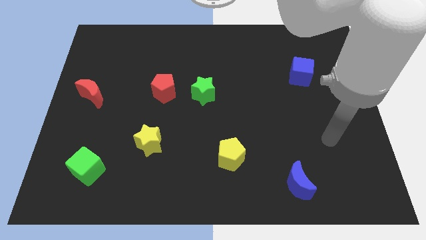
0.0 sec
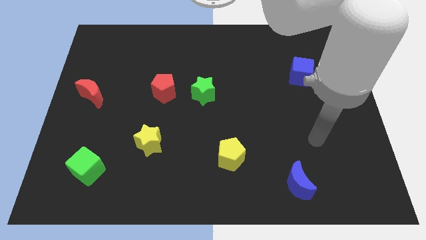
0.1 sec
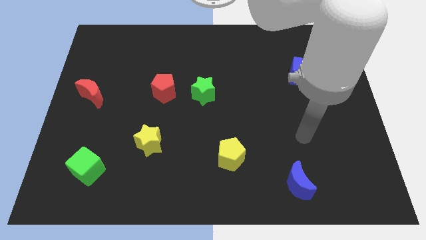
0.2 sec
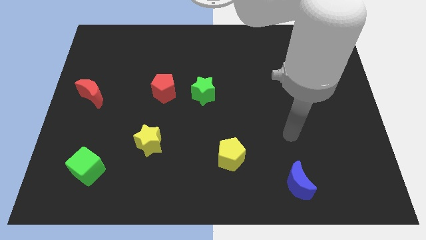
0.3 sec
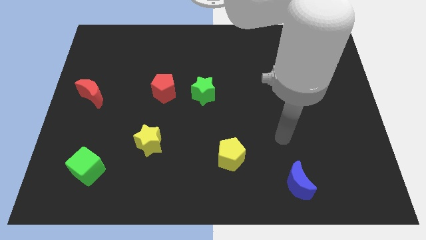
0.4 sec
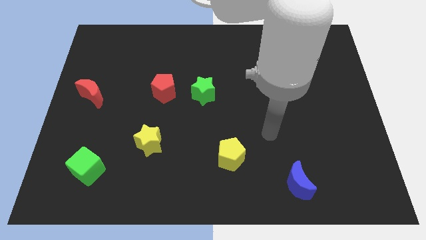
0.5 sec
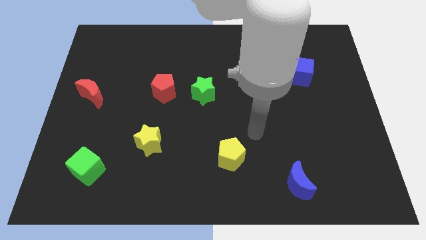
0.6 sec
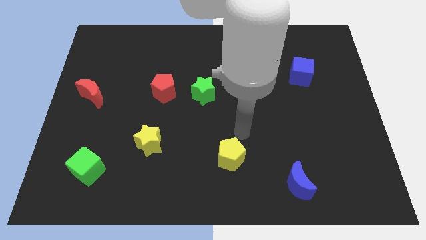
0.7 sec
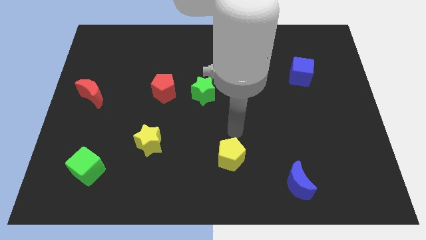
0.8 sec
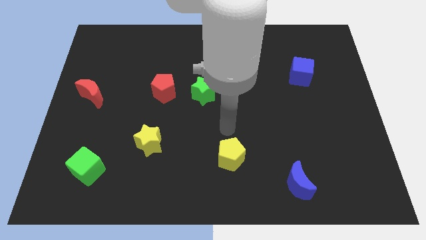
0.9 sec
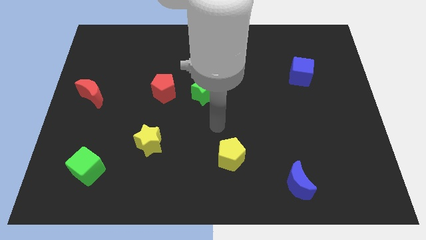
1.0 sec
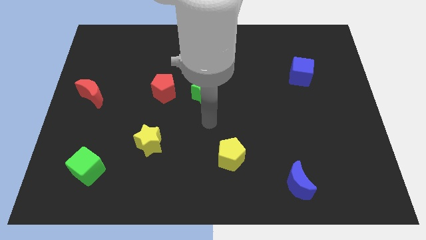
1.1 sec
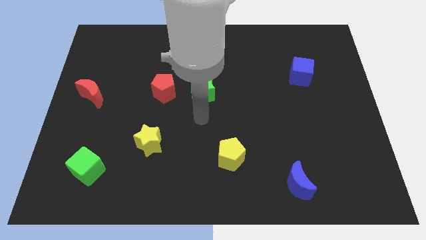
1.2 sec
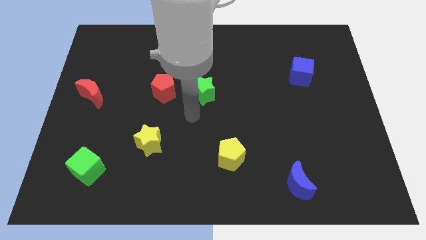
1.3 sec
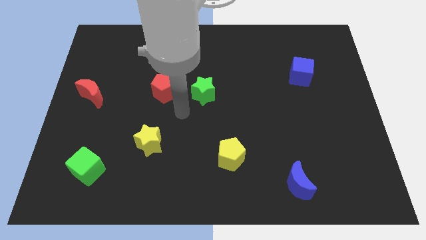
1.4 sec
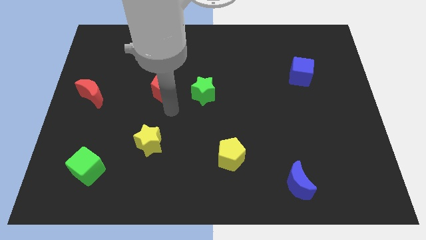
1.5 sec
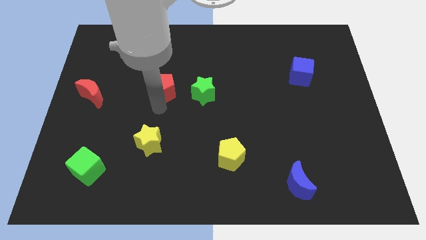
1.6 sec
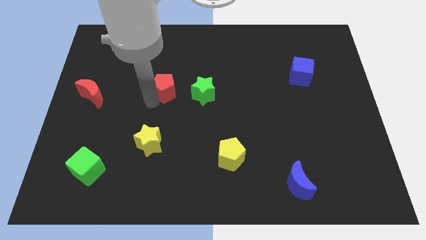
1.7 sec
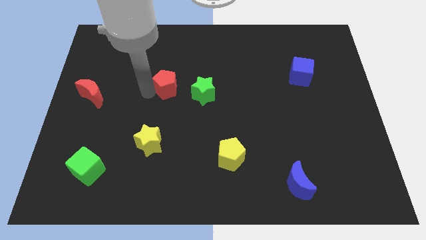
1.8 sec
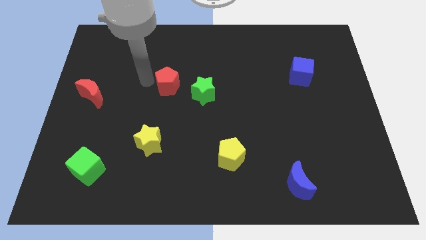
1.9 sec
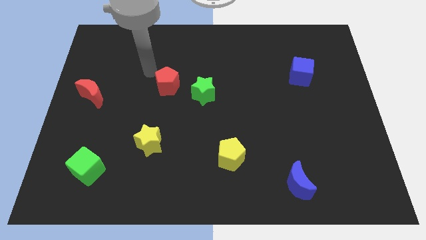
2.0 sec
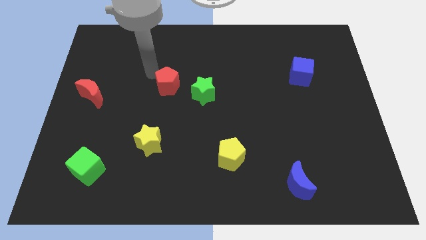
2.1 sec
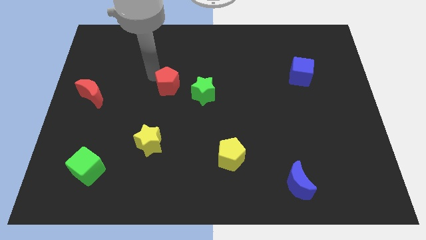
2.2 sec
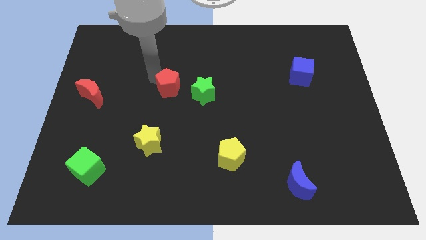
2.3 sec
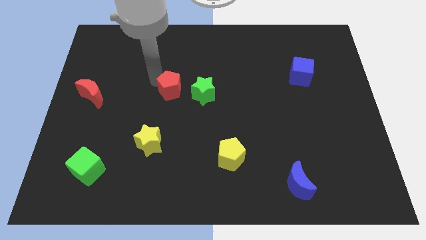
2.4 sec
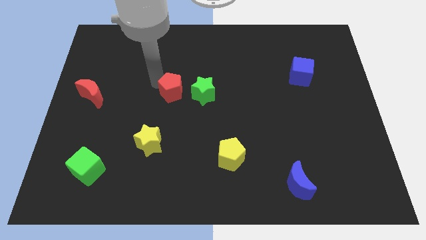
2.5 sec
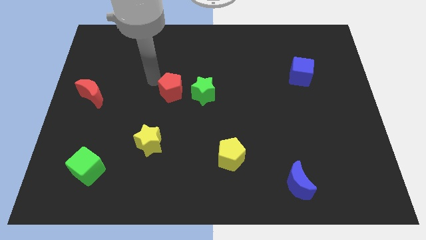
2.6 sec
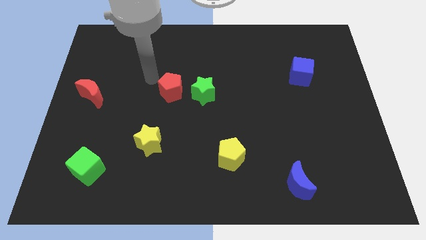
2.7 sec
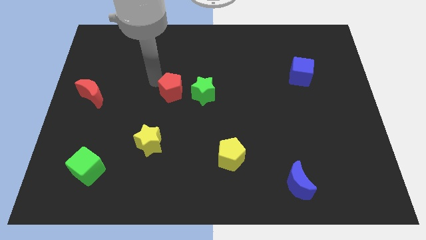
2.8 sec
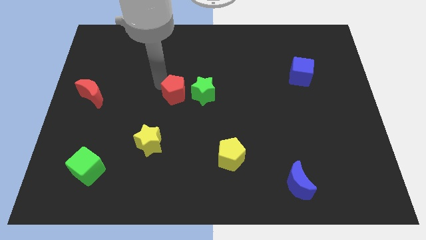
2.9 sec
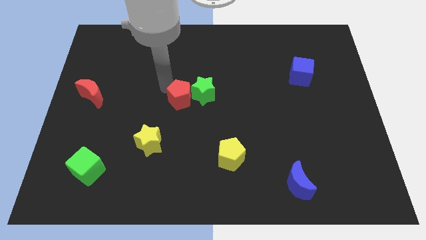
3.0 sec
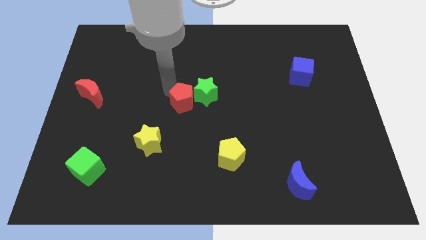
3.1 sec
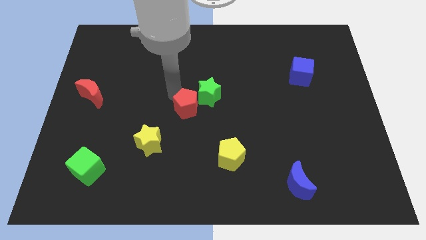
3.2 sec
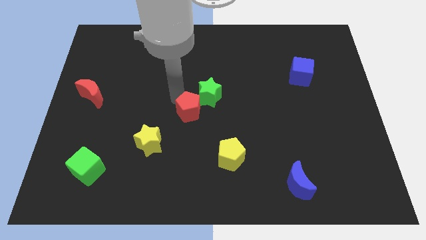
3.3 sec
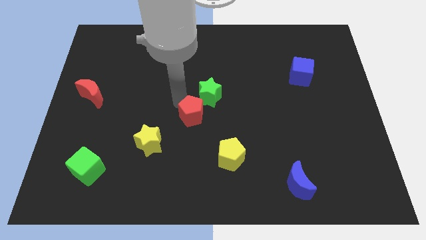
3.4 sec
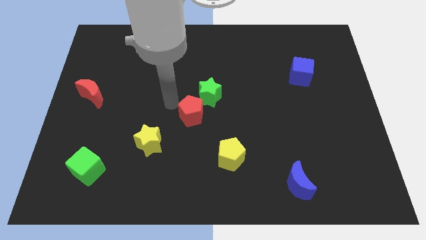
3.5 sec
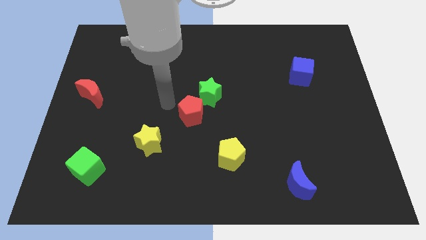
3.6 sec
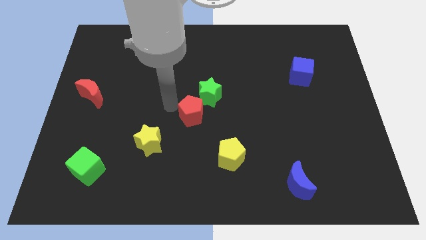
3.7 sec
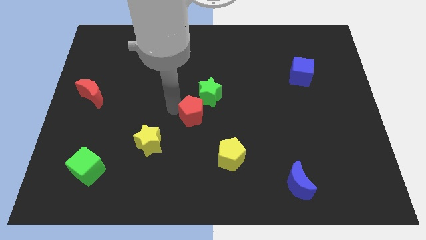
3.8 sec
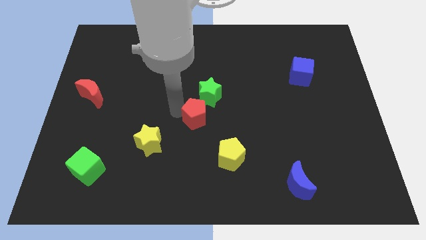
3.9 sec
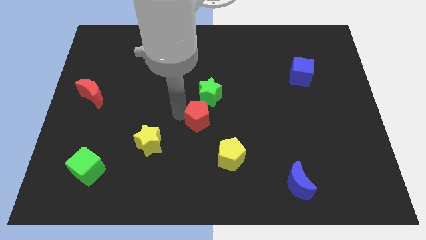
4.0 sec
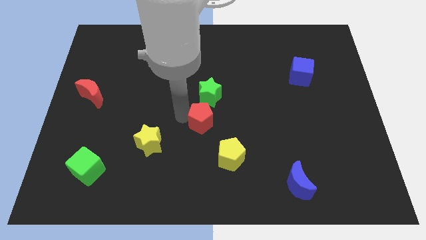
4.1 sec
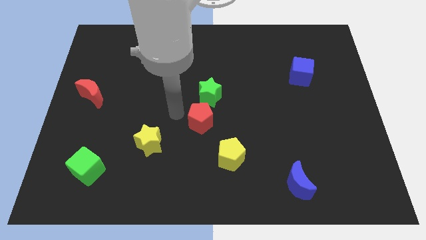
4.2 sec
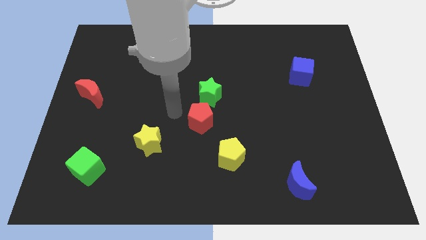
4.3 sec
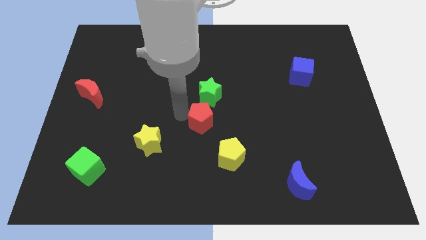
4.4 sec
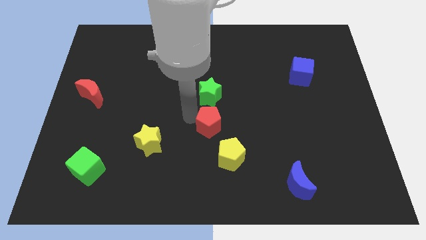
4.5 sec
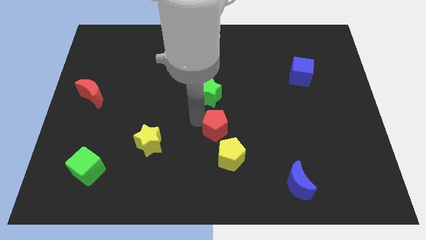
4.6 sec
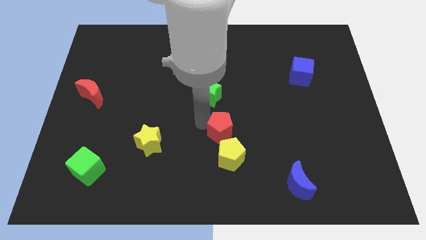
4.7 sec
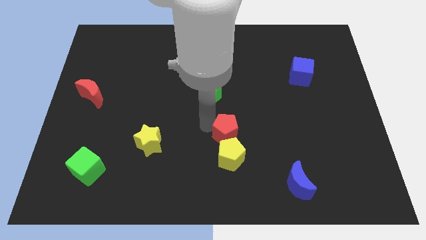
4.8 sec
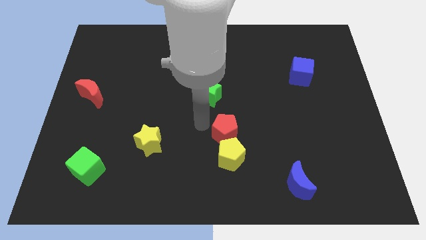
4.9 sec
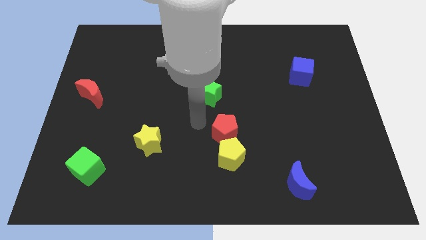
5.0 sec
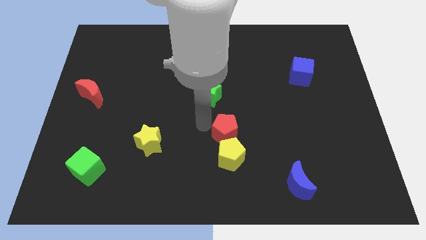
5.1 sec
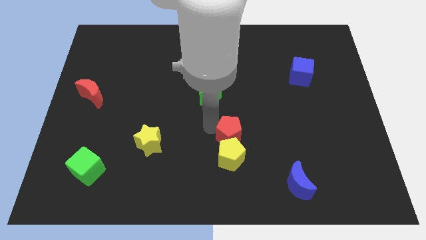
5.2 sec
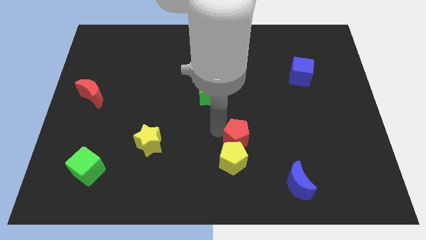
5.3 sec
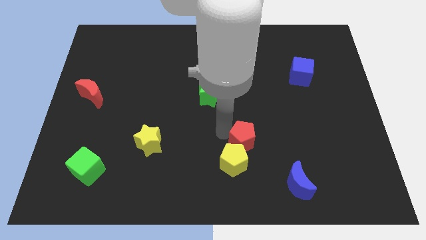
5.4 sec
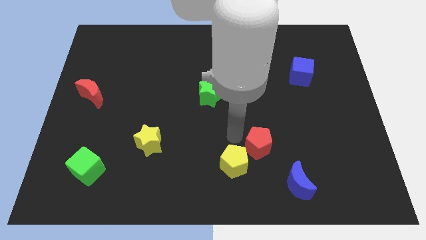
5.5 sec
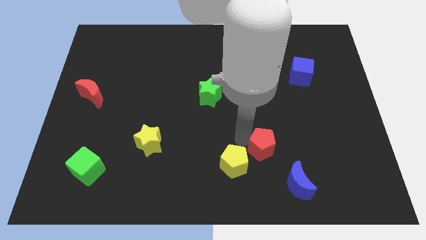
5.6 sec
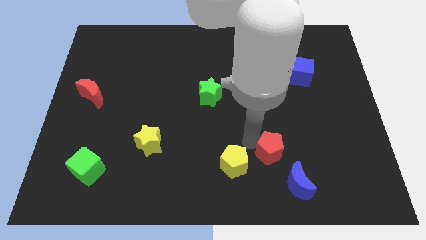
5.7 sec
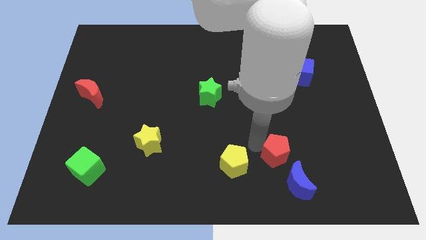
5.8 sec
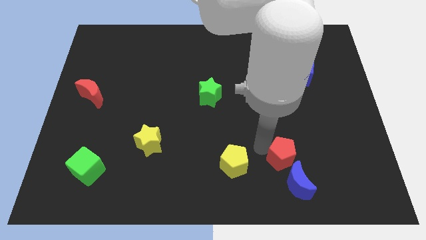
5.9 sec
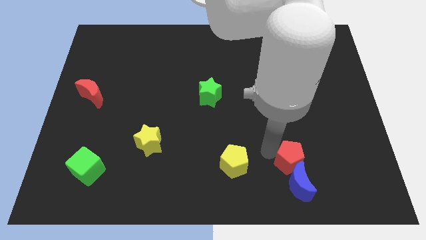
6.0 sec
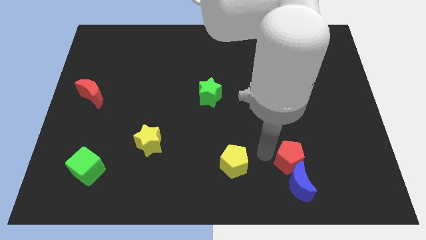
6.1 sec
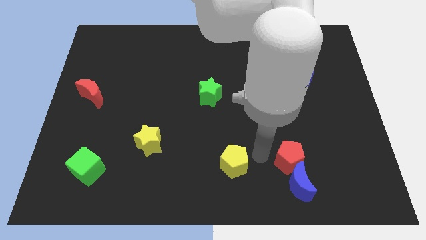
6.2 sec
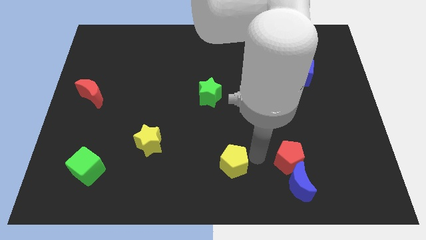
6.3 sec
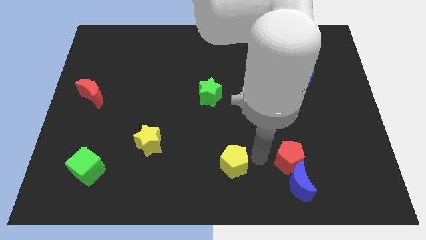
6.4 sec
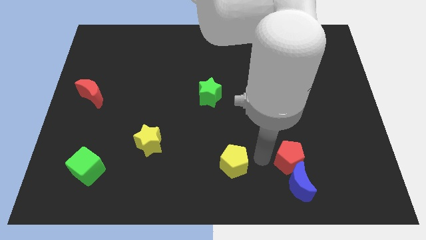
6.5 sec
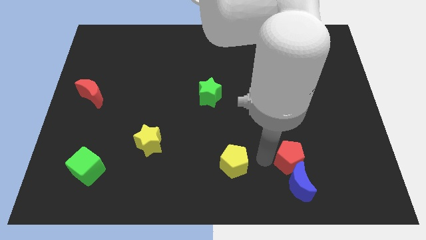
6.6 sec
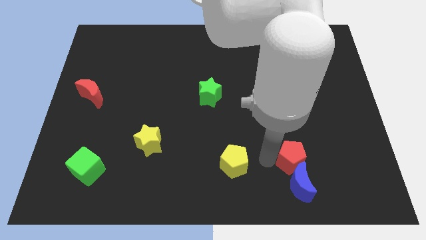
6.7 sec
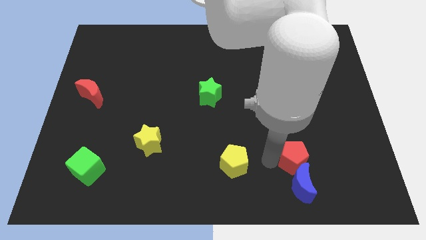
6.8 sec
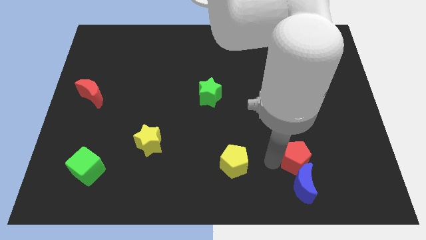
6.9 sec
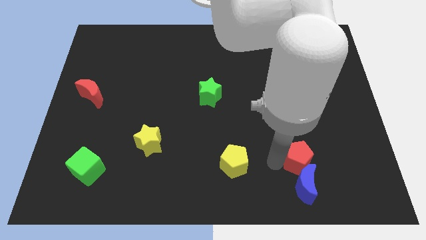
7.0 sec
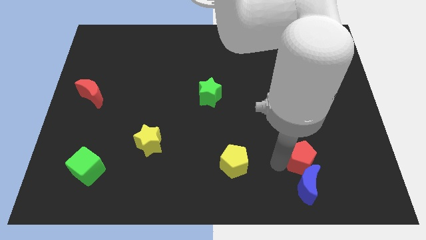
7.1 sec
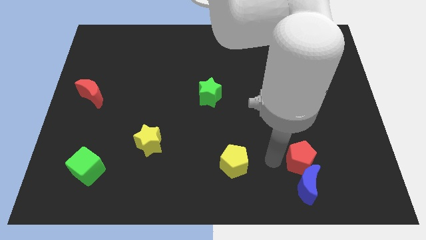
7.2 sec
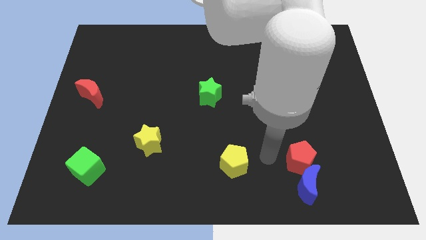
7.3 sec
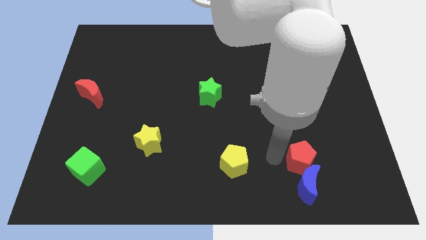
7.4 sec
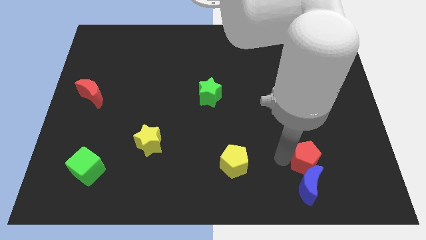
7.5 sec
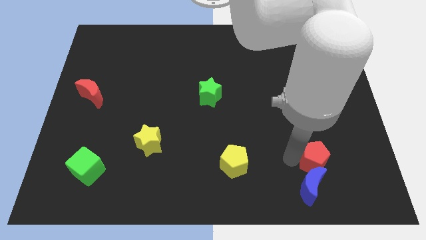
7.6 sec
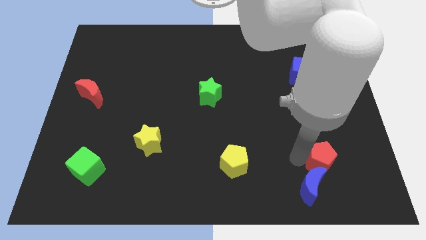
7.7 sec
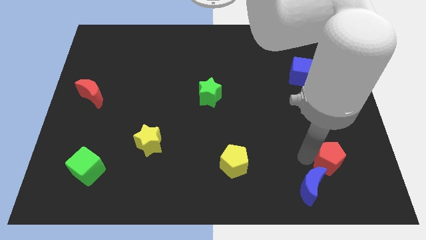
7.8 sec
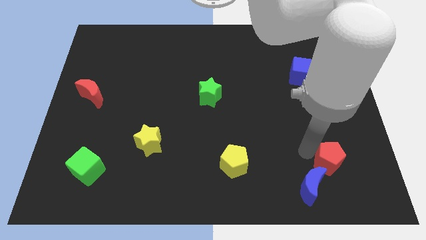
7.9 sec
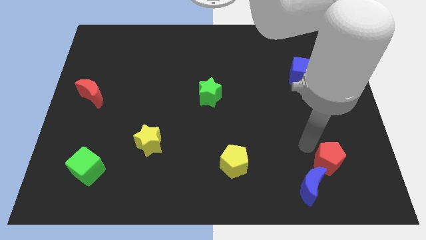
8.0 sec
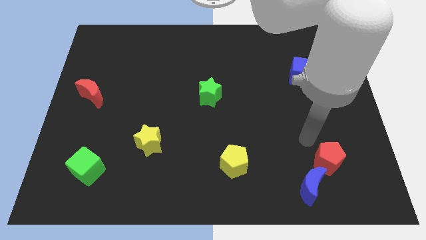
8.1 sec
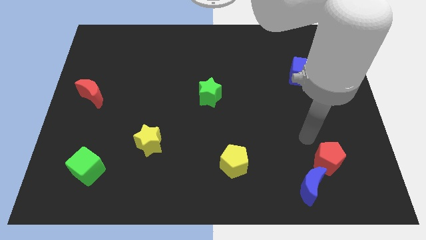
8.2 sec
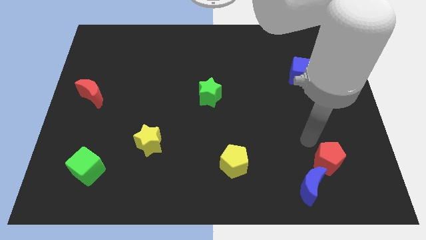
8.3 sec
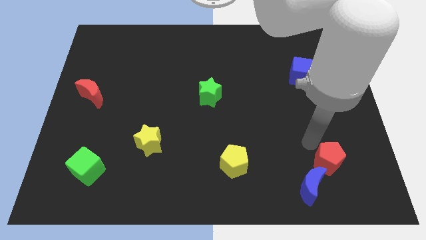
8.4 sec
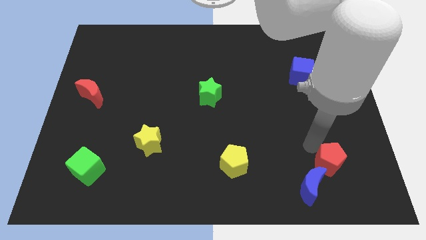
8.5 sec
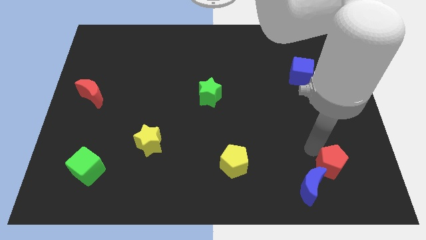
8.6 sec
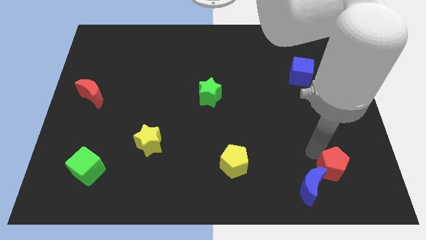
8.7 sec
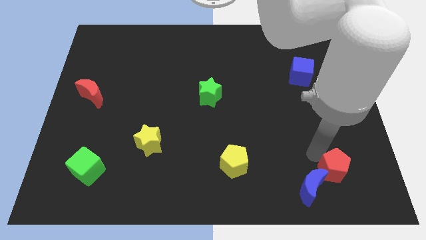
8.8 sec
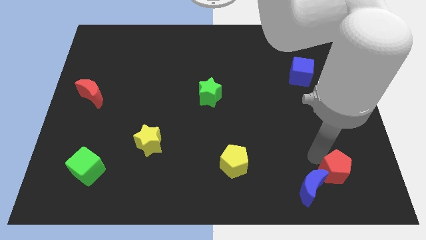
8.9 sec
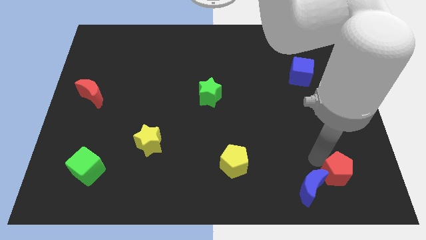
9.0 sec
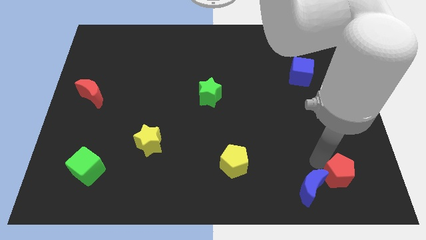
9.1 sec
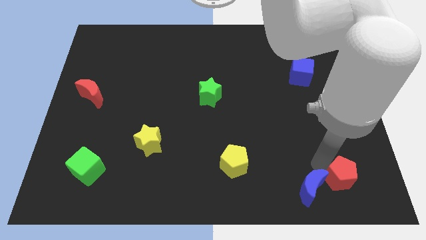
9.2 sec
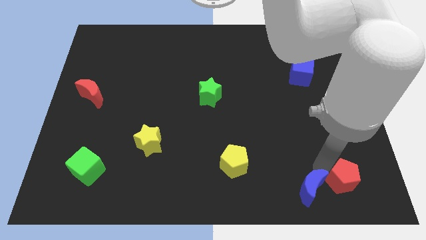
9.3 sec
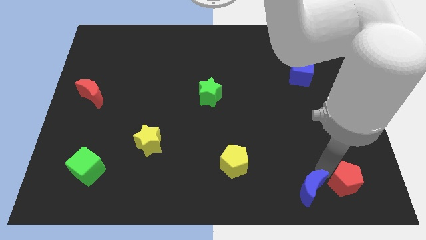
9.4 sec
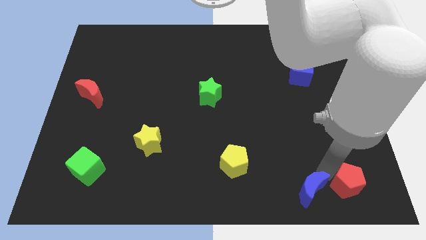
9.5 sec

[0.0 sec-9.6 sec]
push the red pentagon to the bottom right corner
